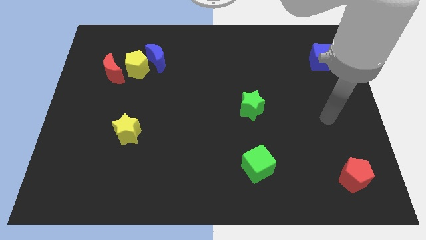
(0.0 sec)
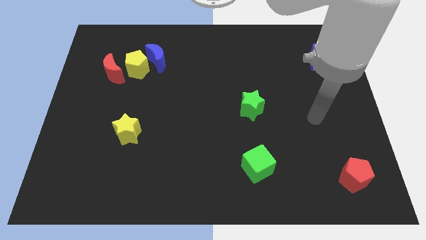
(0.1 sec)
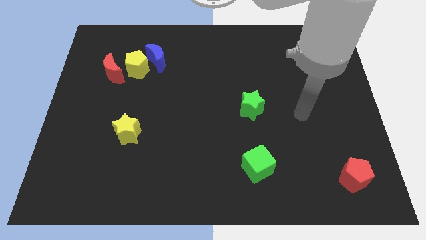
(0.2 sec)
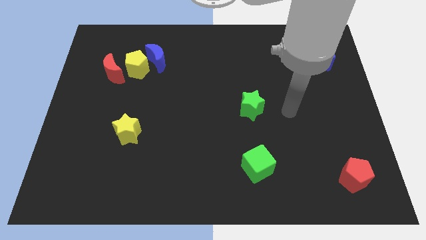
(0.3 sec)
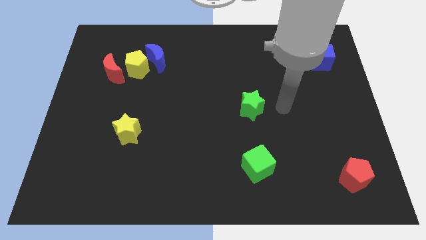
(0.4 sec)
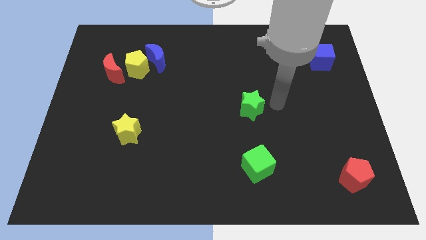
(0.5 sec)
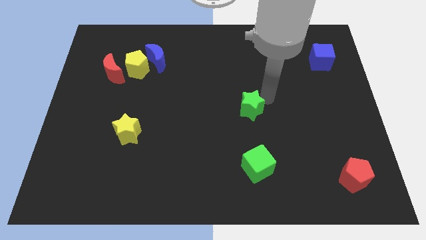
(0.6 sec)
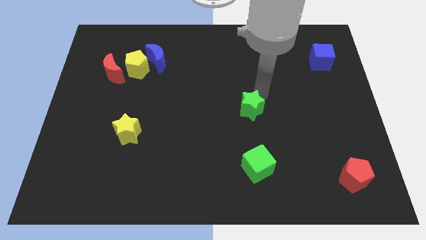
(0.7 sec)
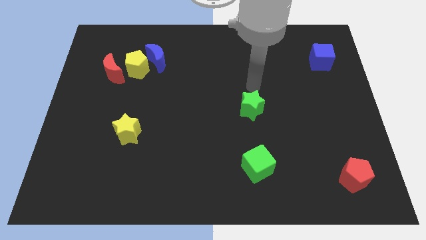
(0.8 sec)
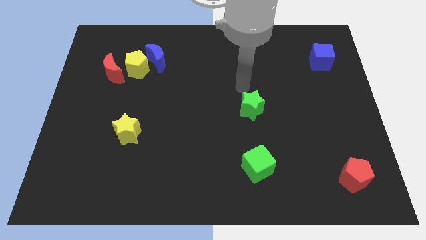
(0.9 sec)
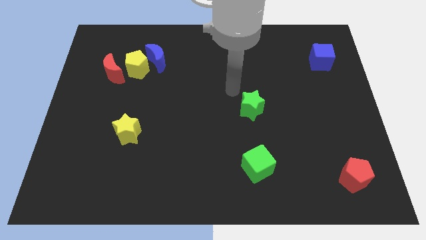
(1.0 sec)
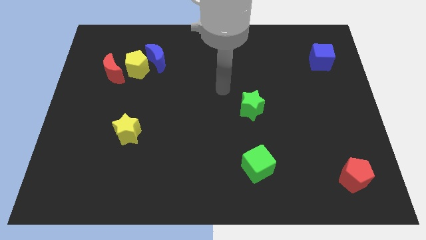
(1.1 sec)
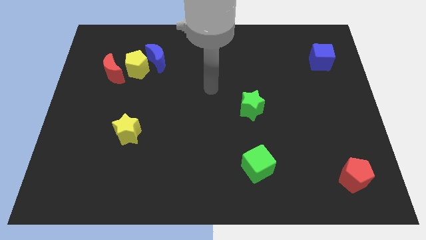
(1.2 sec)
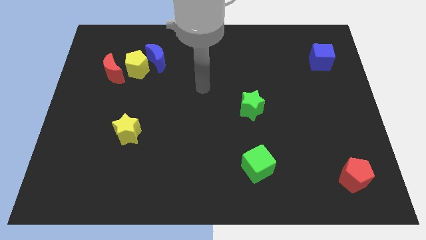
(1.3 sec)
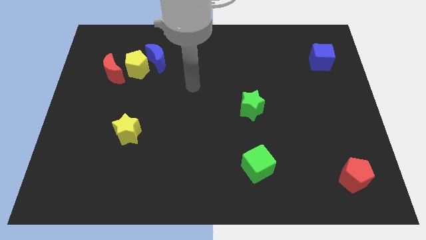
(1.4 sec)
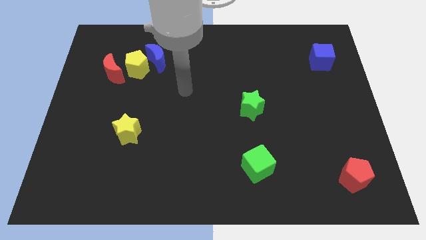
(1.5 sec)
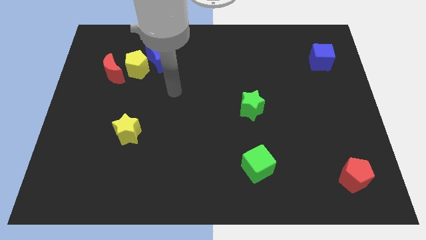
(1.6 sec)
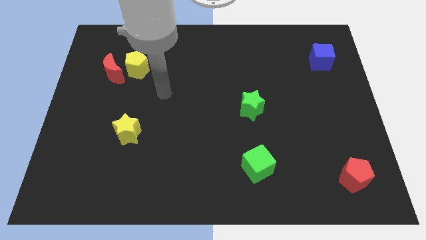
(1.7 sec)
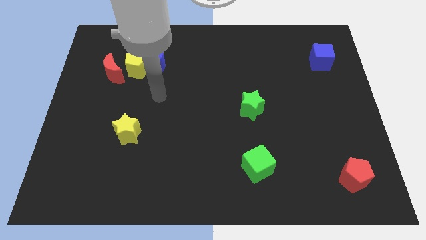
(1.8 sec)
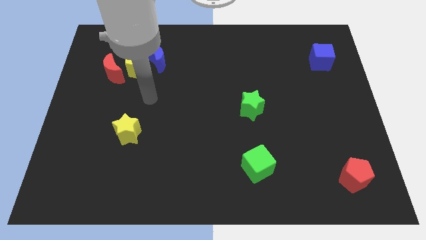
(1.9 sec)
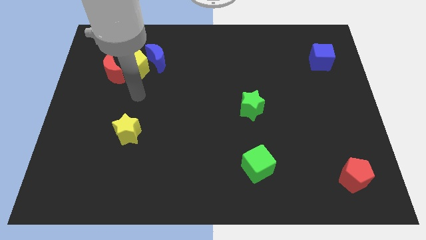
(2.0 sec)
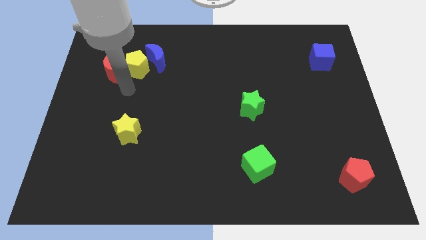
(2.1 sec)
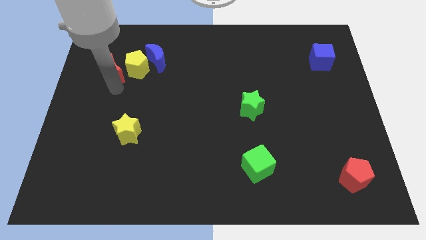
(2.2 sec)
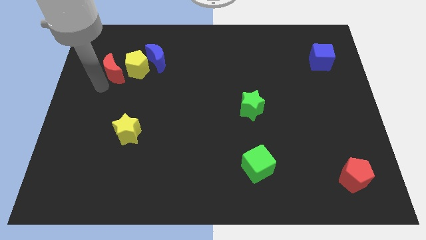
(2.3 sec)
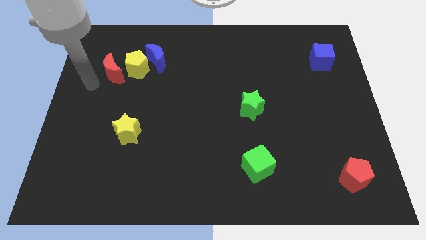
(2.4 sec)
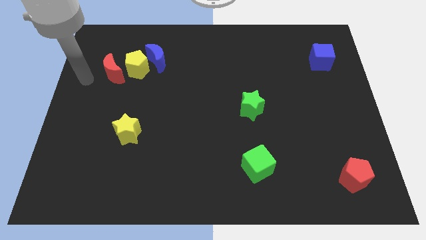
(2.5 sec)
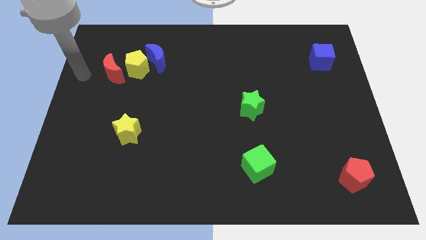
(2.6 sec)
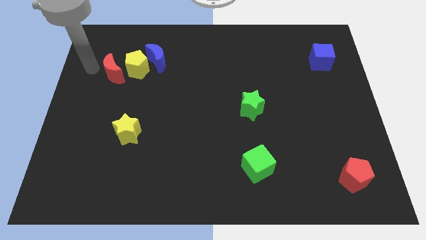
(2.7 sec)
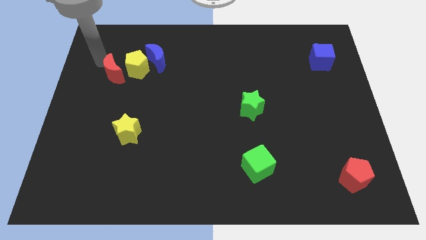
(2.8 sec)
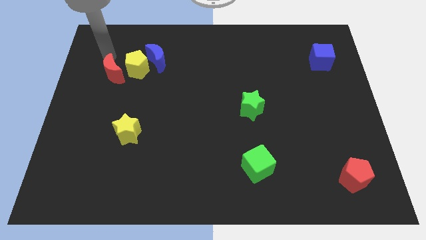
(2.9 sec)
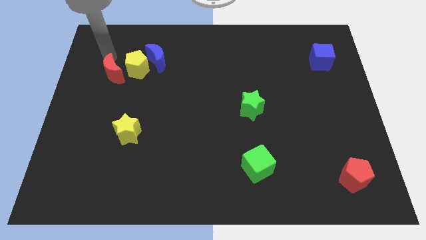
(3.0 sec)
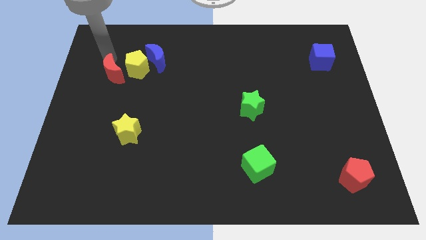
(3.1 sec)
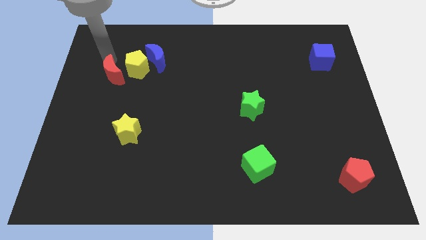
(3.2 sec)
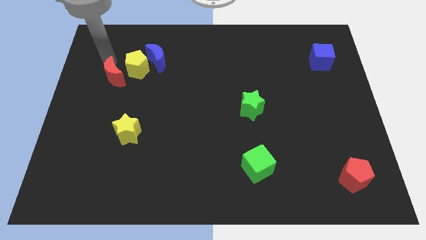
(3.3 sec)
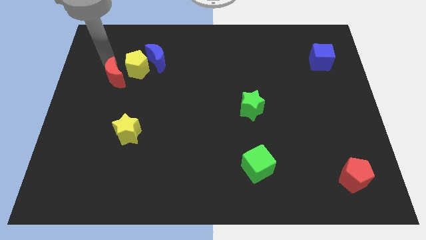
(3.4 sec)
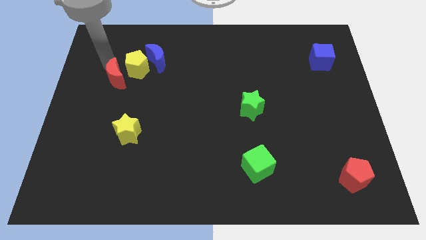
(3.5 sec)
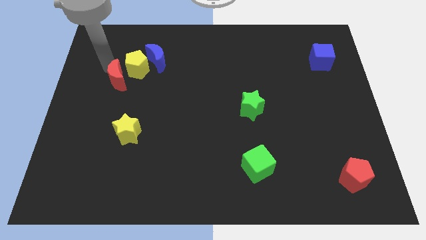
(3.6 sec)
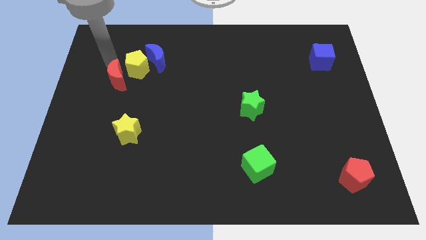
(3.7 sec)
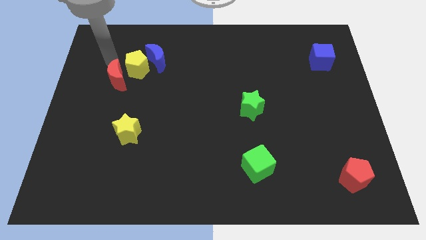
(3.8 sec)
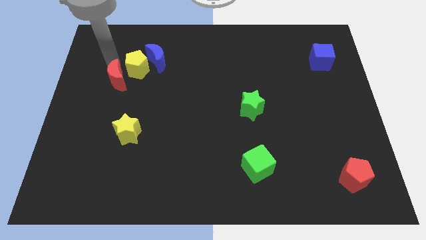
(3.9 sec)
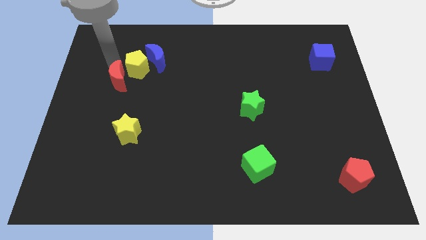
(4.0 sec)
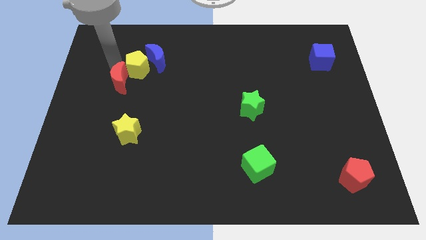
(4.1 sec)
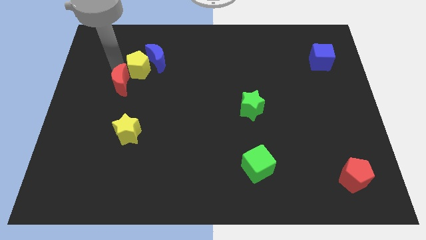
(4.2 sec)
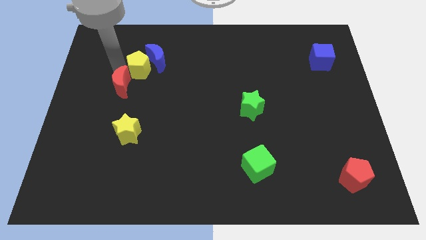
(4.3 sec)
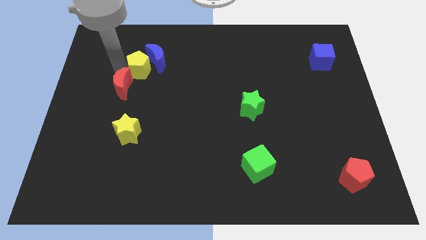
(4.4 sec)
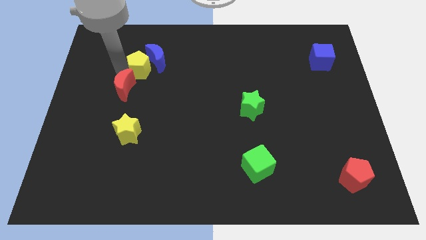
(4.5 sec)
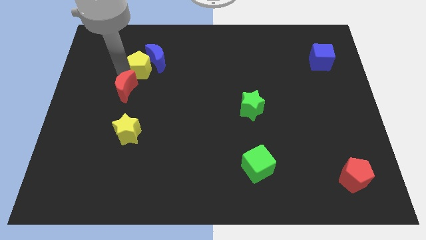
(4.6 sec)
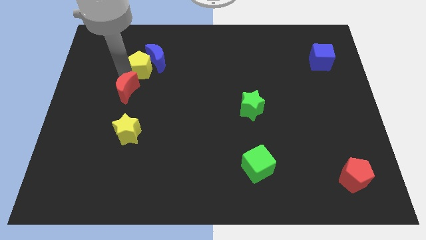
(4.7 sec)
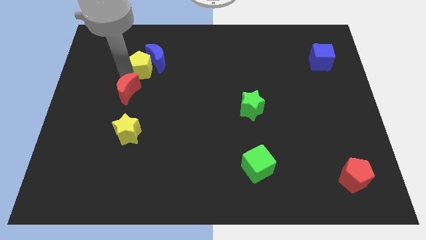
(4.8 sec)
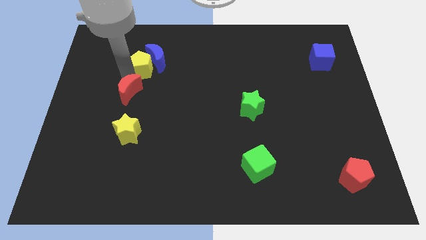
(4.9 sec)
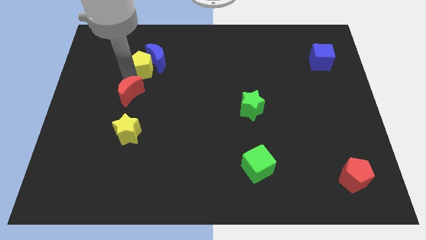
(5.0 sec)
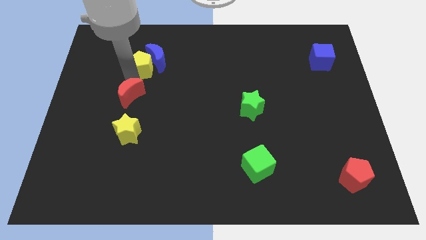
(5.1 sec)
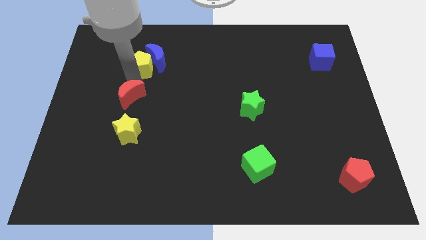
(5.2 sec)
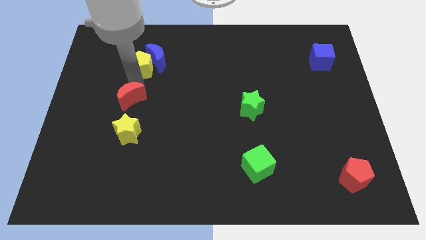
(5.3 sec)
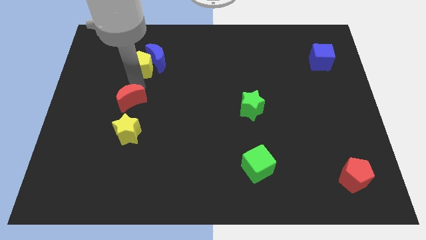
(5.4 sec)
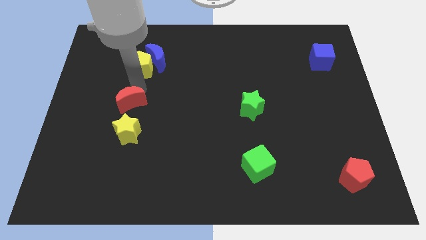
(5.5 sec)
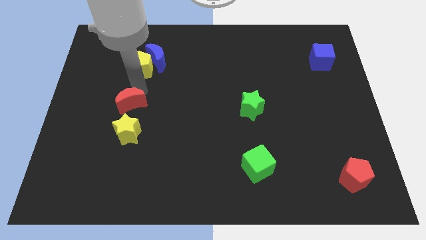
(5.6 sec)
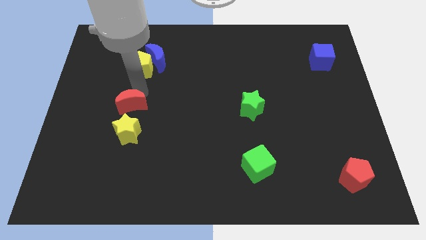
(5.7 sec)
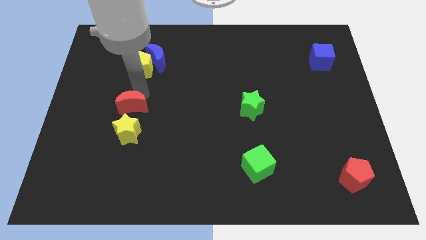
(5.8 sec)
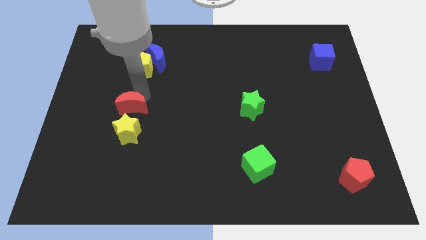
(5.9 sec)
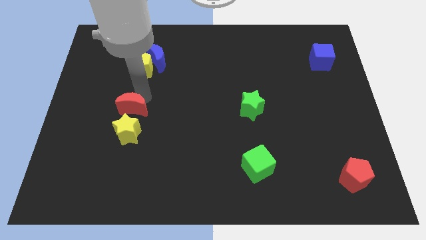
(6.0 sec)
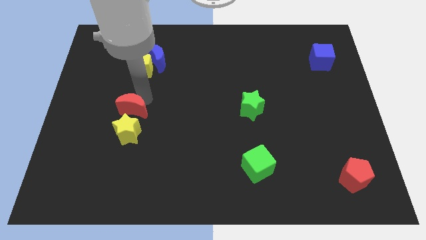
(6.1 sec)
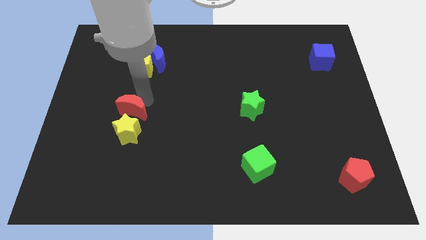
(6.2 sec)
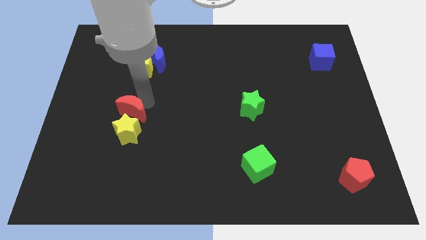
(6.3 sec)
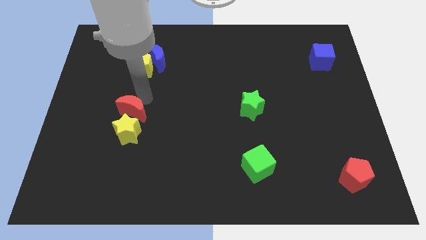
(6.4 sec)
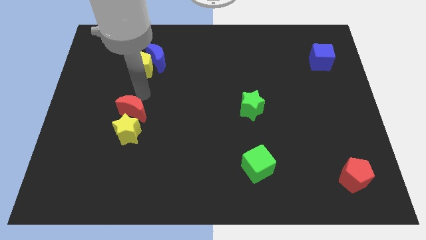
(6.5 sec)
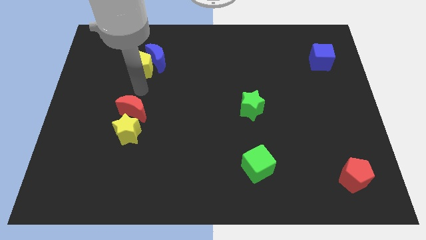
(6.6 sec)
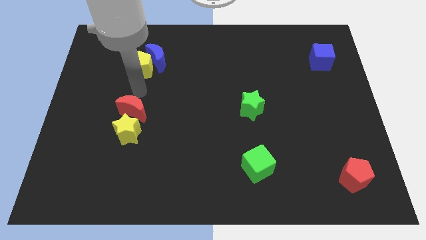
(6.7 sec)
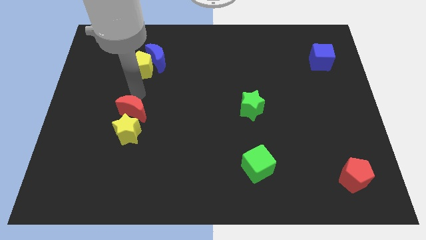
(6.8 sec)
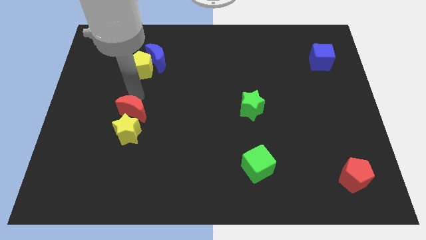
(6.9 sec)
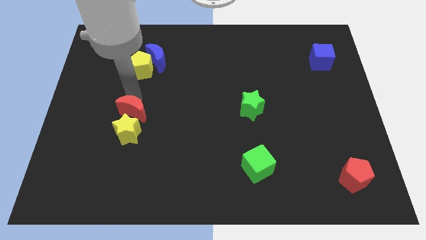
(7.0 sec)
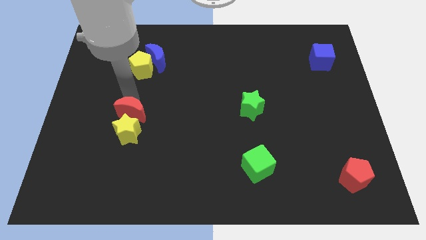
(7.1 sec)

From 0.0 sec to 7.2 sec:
put the red moon close to the yellow star
